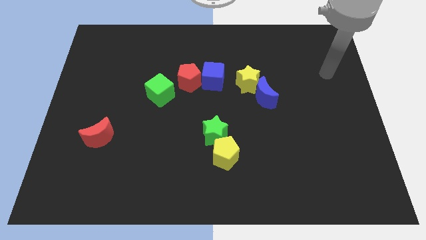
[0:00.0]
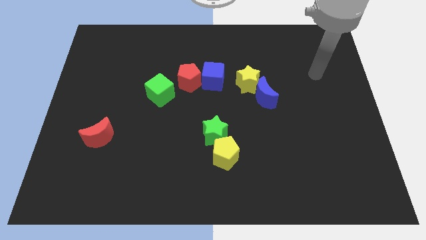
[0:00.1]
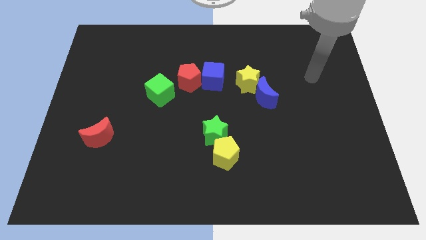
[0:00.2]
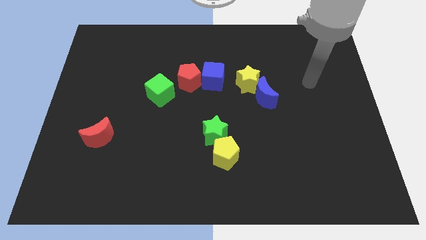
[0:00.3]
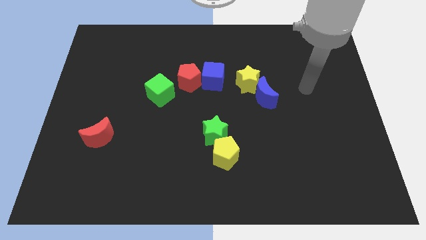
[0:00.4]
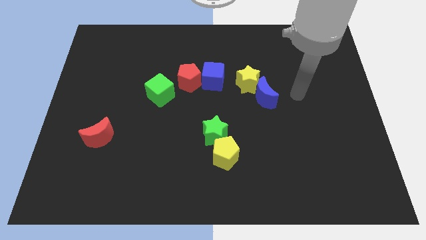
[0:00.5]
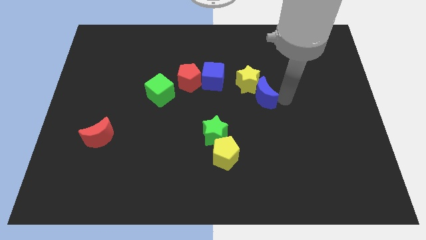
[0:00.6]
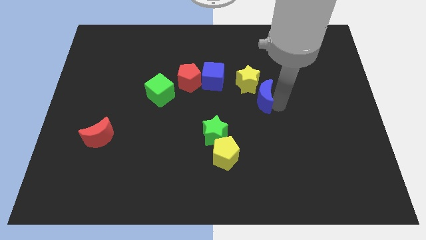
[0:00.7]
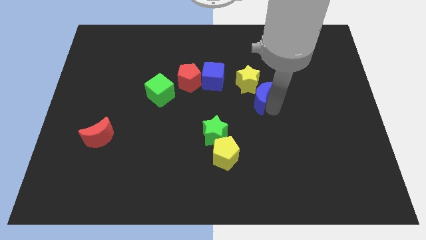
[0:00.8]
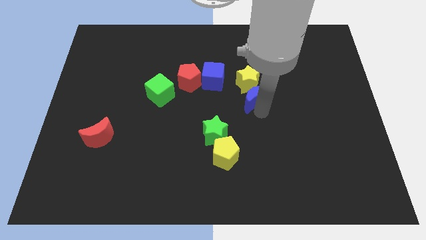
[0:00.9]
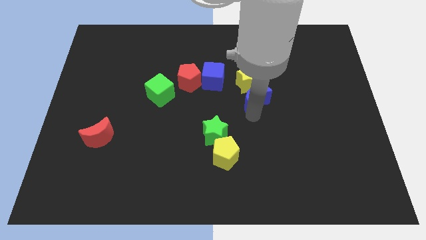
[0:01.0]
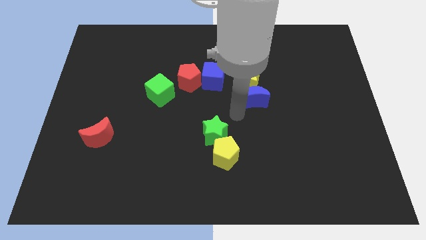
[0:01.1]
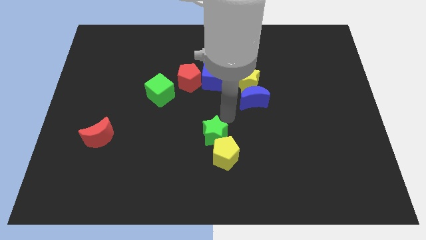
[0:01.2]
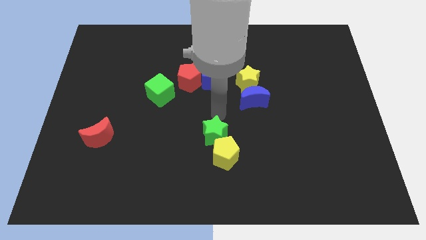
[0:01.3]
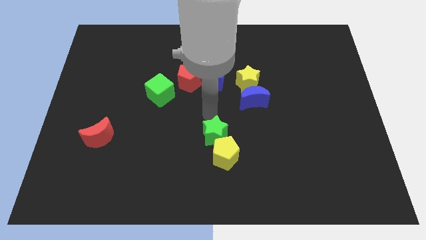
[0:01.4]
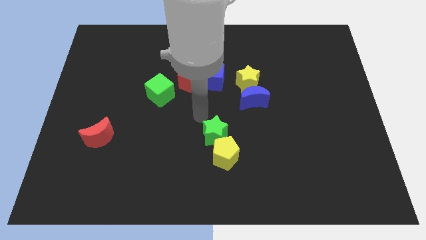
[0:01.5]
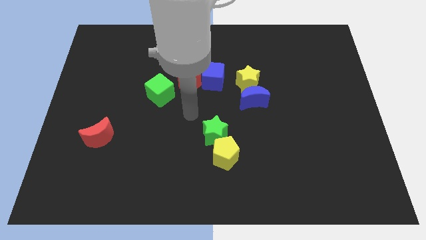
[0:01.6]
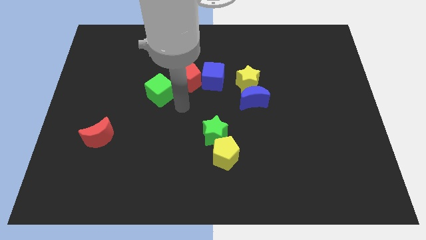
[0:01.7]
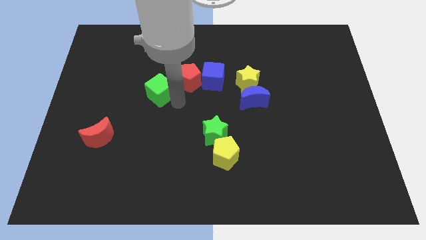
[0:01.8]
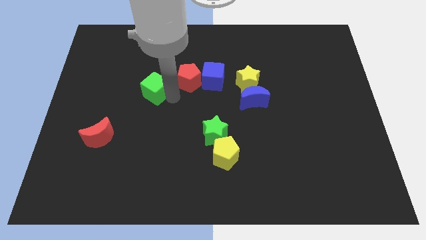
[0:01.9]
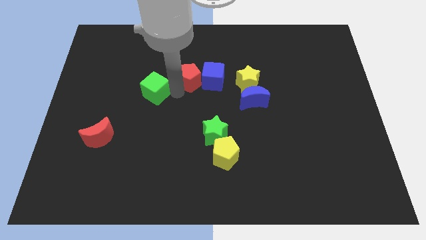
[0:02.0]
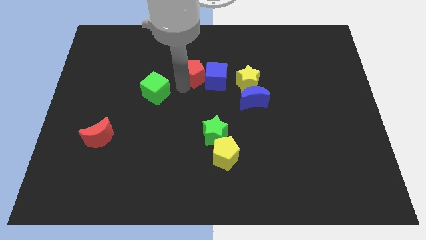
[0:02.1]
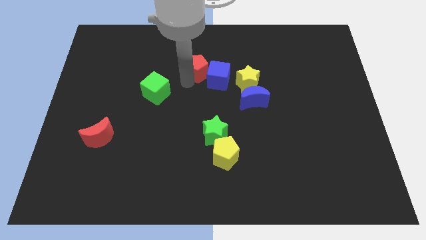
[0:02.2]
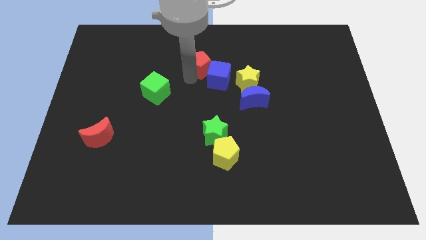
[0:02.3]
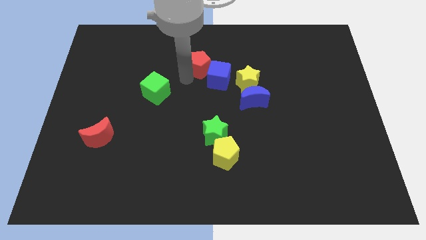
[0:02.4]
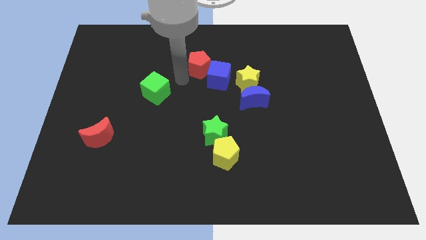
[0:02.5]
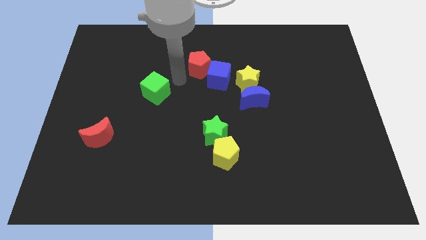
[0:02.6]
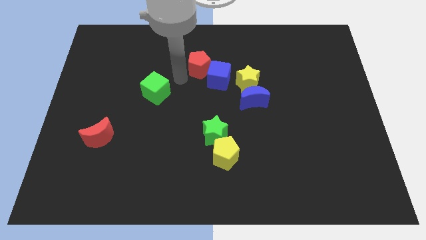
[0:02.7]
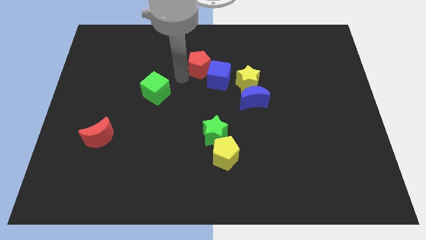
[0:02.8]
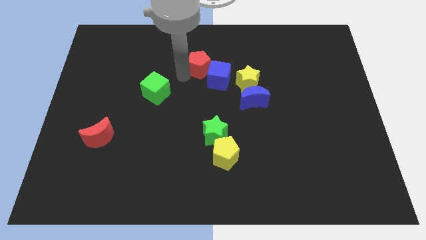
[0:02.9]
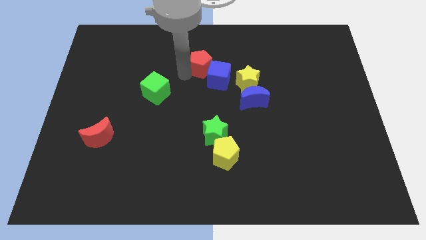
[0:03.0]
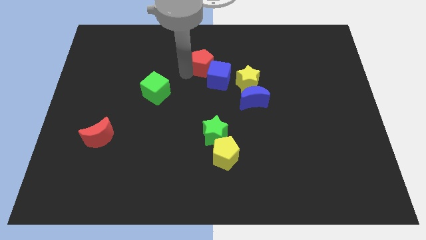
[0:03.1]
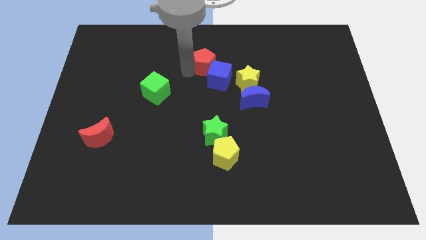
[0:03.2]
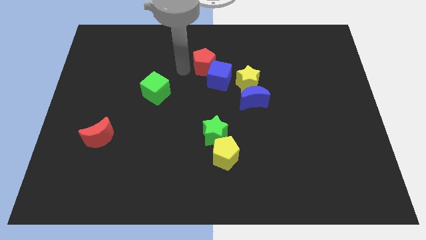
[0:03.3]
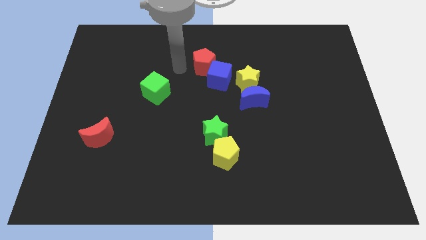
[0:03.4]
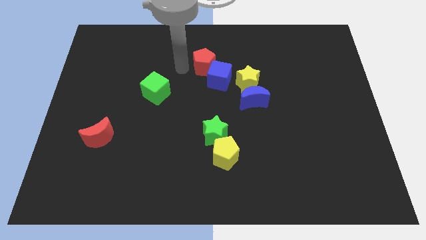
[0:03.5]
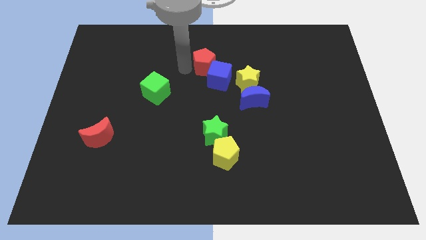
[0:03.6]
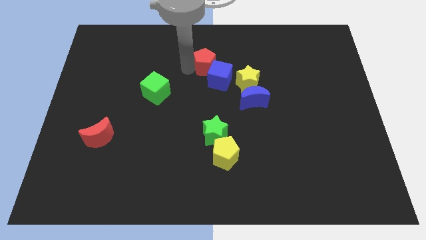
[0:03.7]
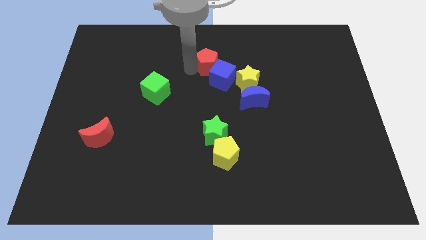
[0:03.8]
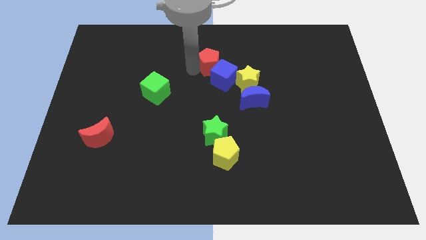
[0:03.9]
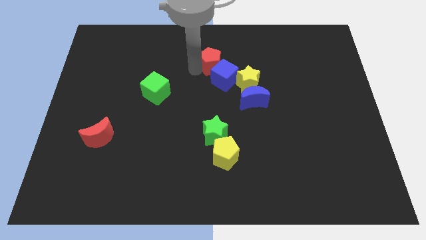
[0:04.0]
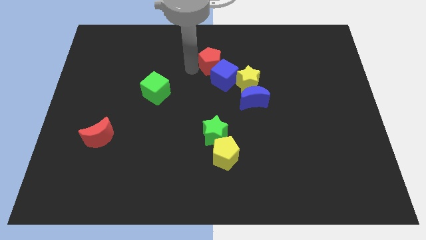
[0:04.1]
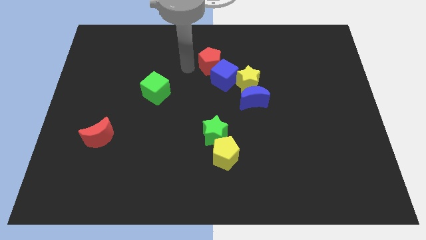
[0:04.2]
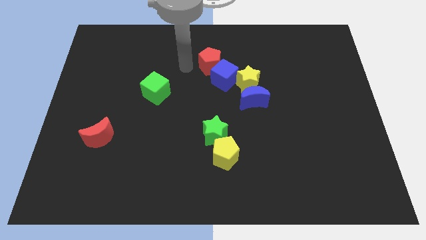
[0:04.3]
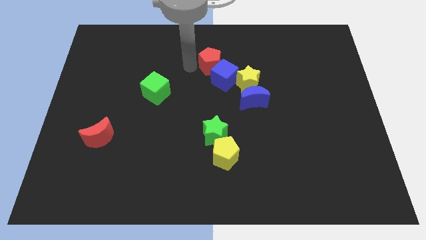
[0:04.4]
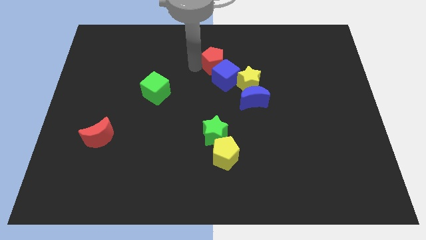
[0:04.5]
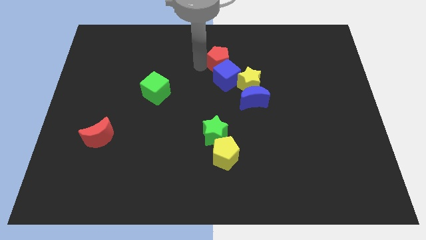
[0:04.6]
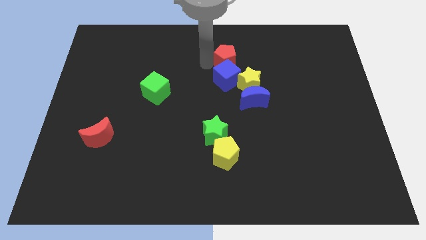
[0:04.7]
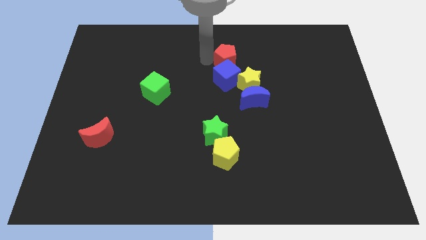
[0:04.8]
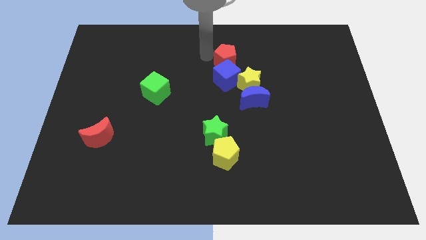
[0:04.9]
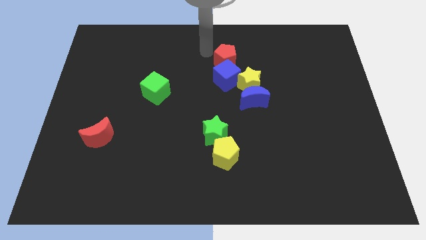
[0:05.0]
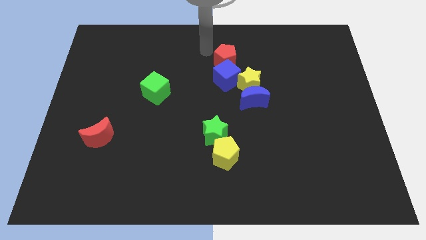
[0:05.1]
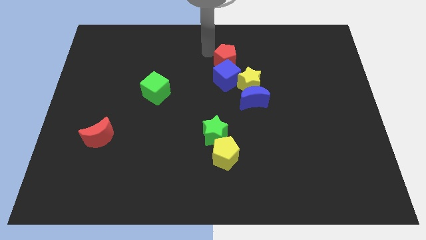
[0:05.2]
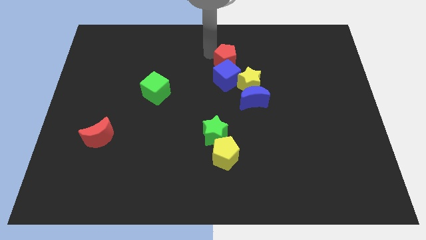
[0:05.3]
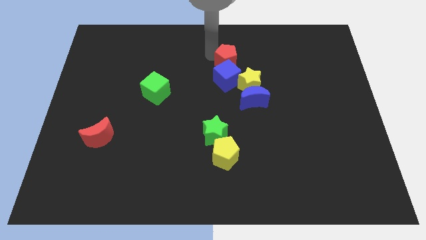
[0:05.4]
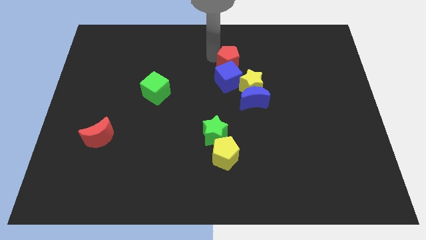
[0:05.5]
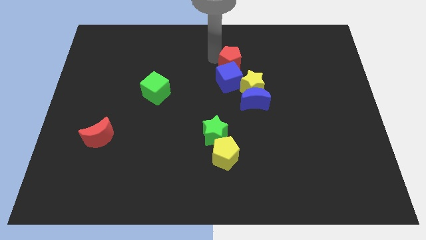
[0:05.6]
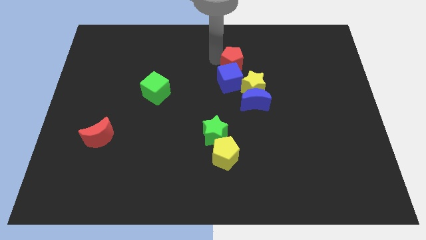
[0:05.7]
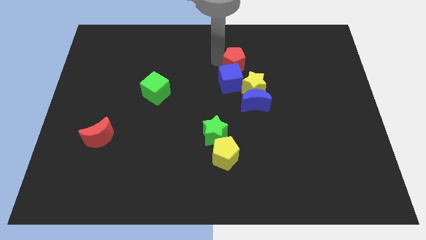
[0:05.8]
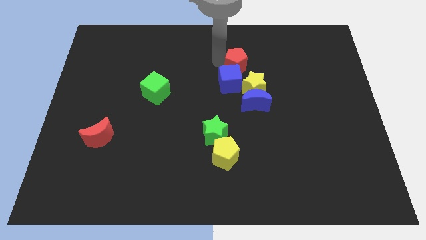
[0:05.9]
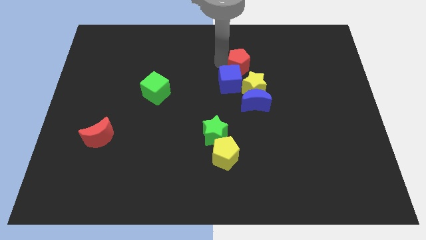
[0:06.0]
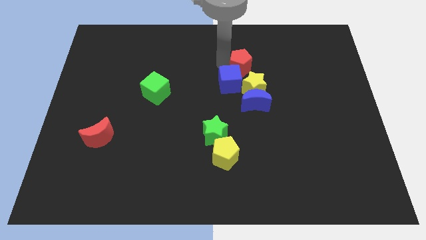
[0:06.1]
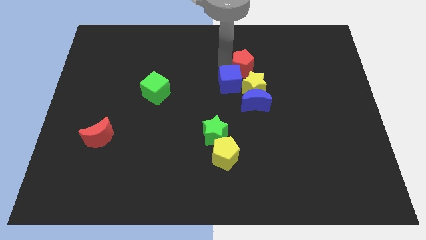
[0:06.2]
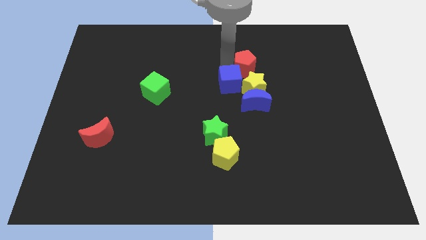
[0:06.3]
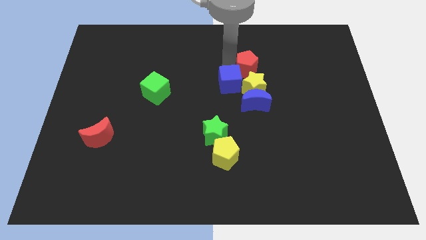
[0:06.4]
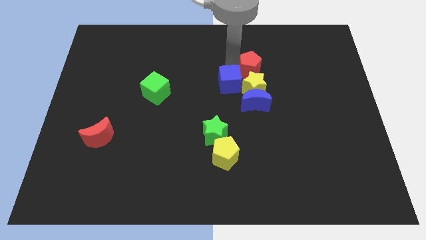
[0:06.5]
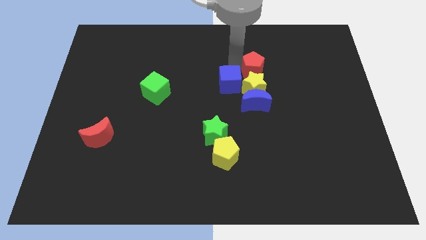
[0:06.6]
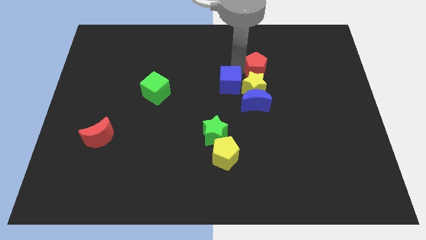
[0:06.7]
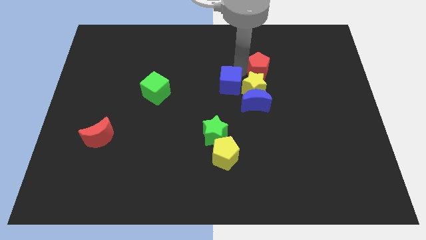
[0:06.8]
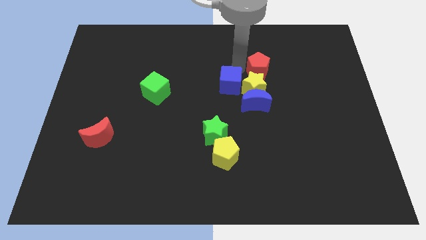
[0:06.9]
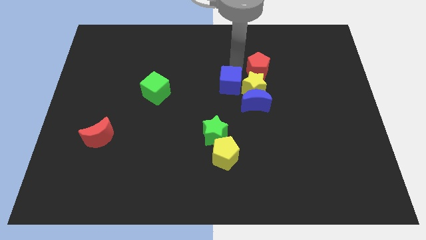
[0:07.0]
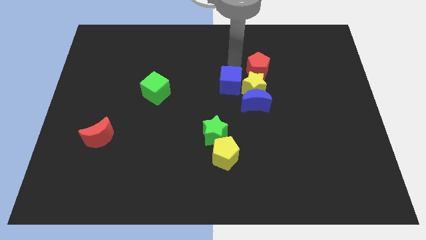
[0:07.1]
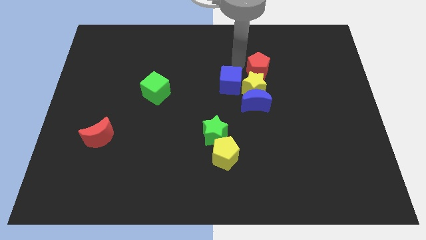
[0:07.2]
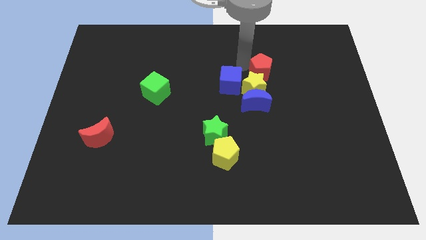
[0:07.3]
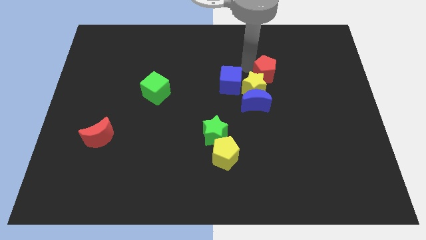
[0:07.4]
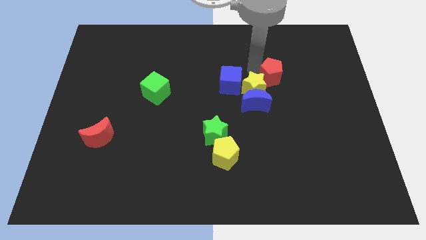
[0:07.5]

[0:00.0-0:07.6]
push the red pentagon right
